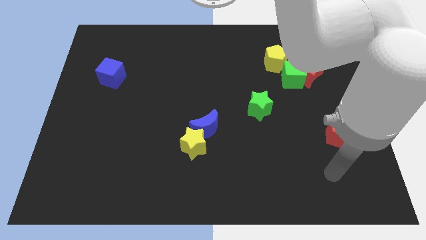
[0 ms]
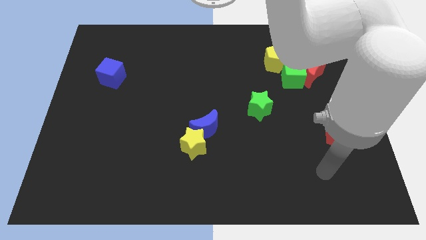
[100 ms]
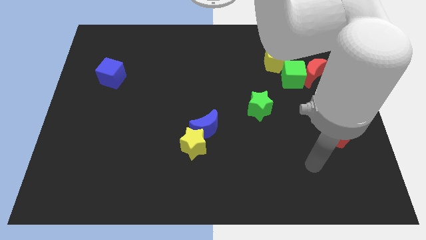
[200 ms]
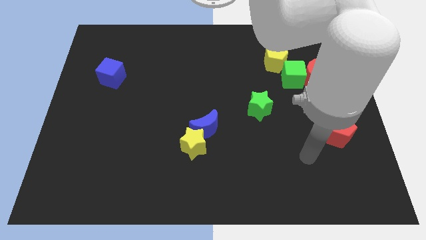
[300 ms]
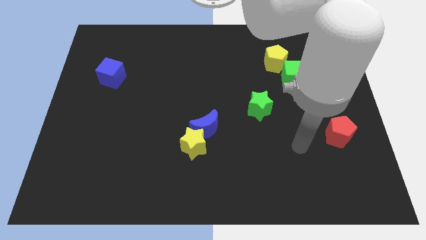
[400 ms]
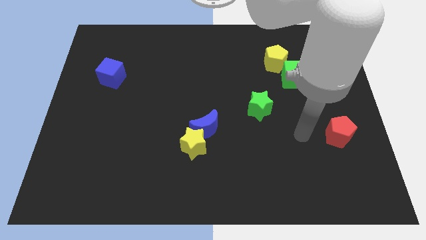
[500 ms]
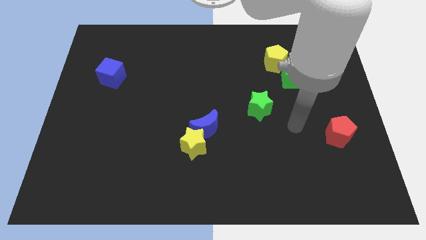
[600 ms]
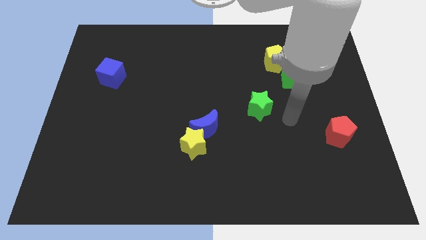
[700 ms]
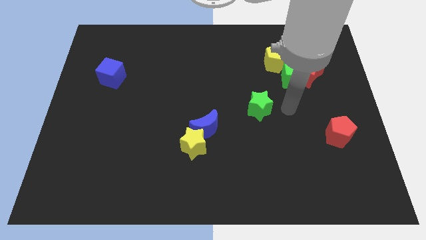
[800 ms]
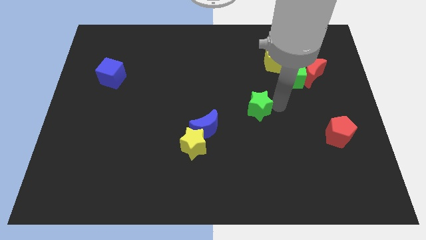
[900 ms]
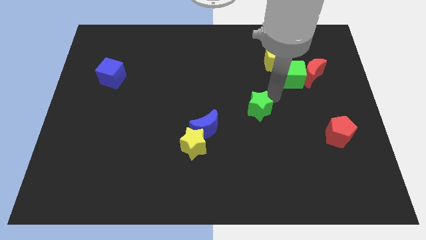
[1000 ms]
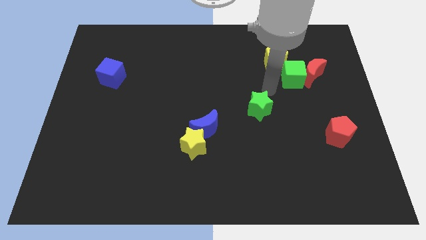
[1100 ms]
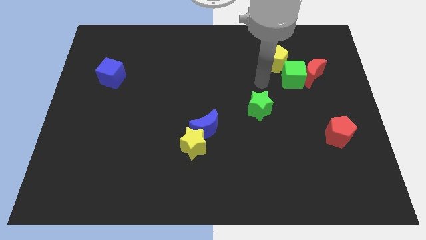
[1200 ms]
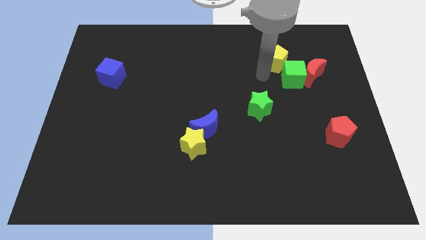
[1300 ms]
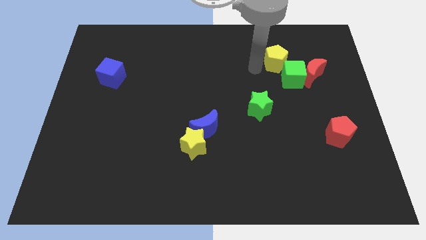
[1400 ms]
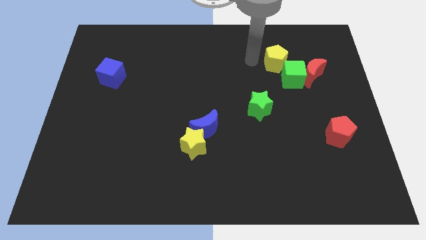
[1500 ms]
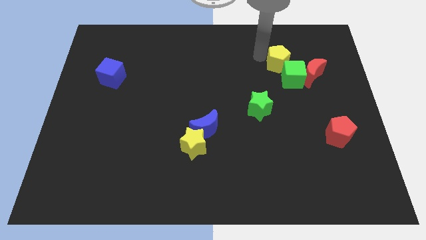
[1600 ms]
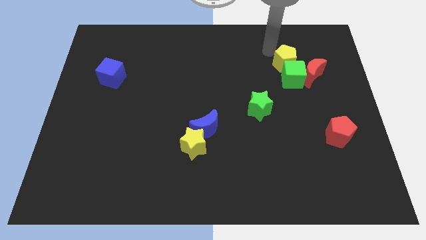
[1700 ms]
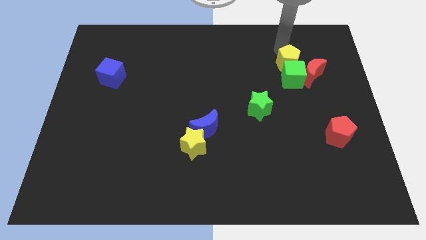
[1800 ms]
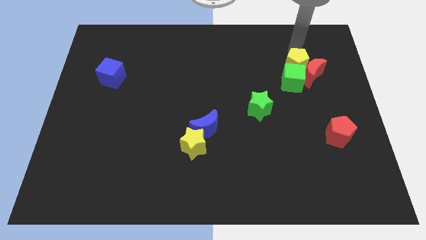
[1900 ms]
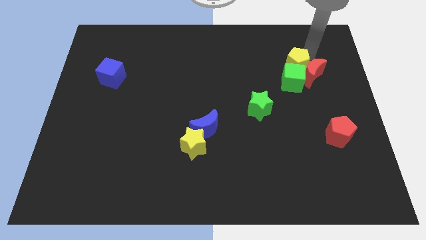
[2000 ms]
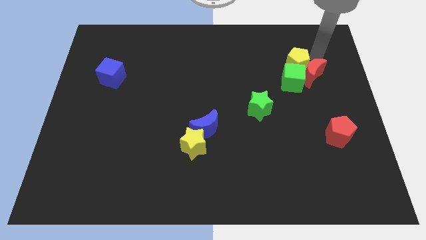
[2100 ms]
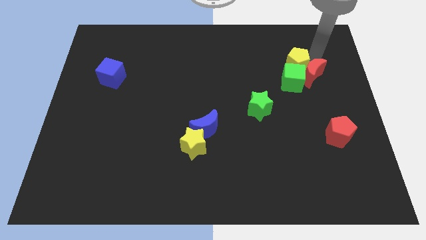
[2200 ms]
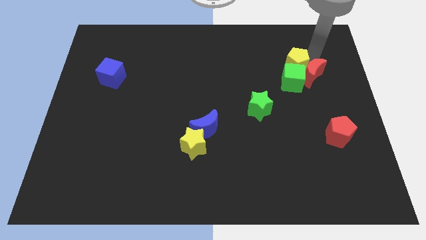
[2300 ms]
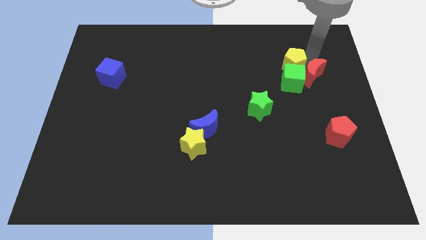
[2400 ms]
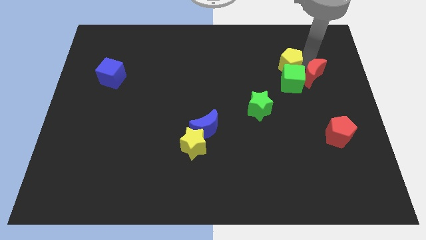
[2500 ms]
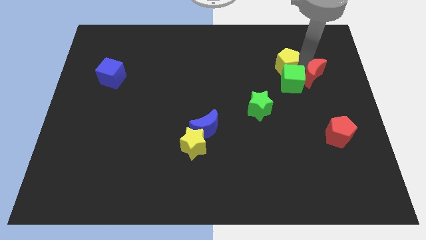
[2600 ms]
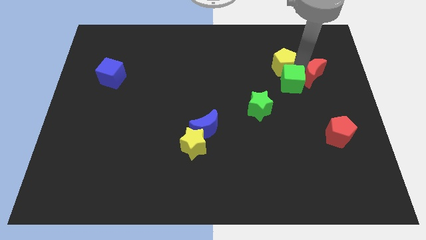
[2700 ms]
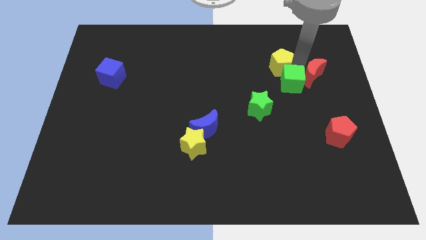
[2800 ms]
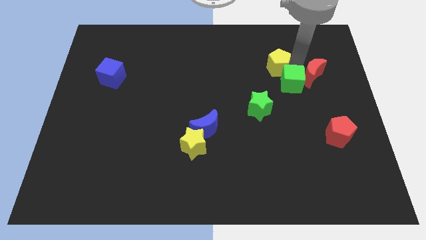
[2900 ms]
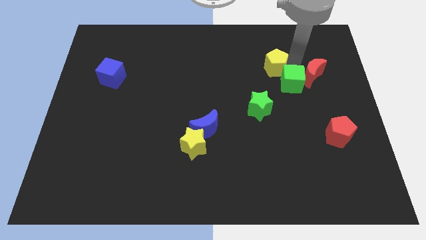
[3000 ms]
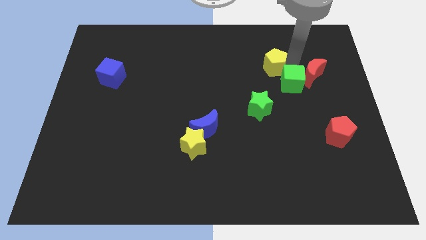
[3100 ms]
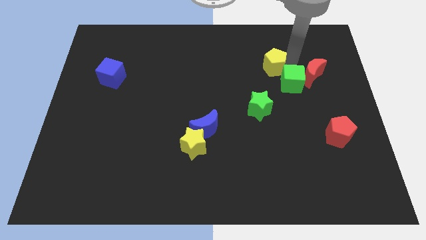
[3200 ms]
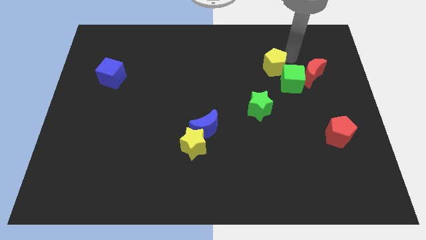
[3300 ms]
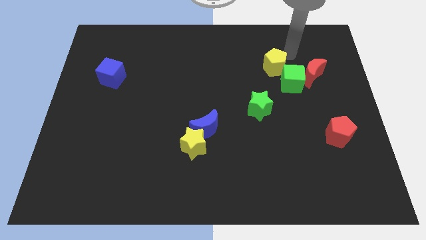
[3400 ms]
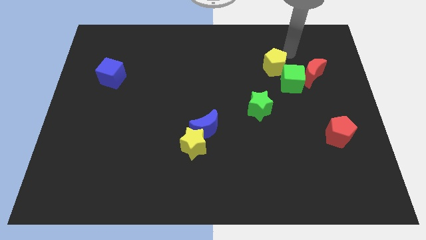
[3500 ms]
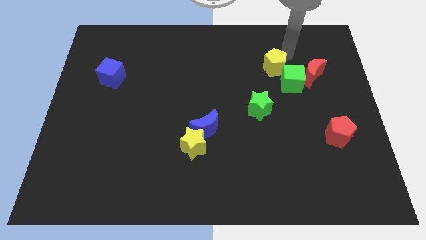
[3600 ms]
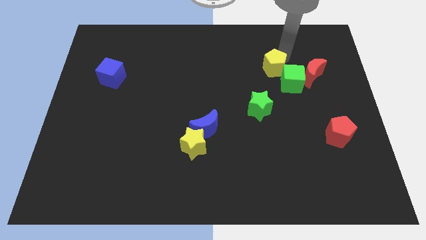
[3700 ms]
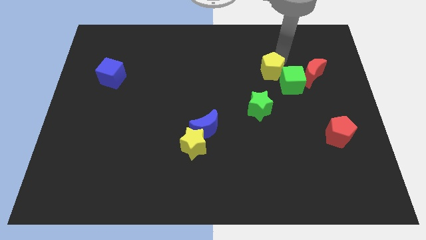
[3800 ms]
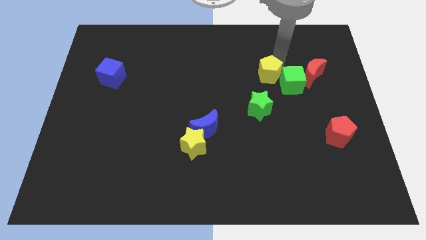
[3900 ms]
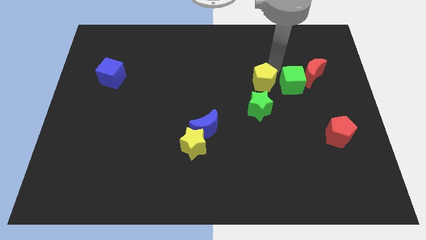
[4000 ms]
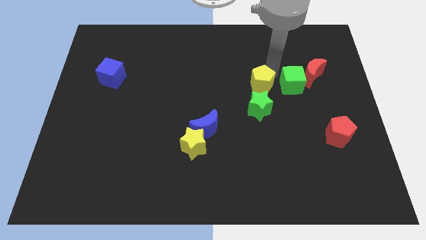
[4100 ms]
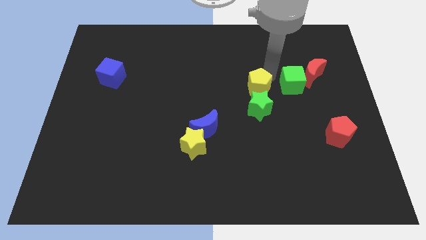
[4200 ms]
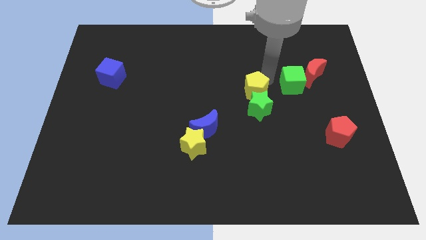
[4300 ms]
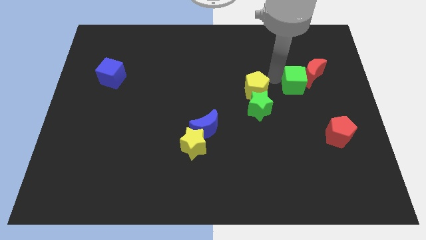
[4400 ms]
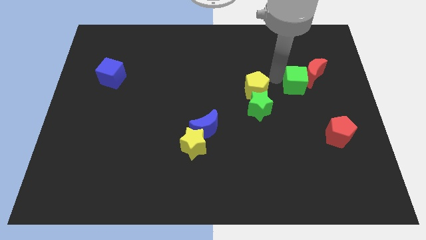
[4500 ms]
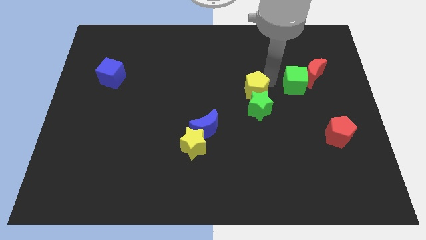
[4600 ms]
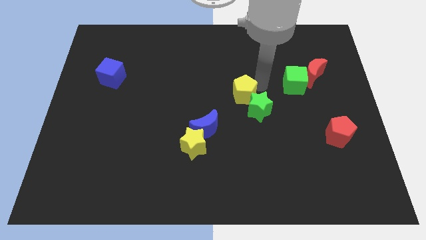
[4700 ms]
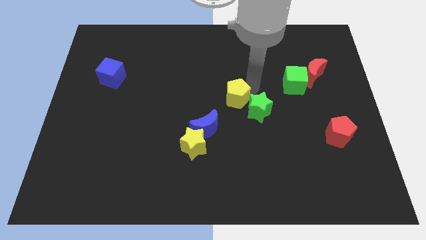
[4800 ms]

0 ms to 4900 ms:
put the yellow pentagon to the left of the green star

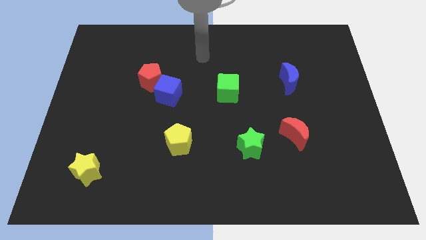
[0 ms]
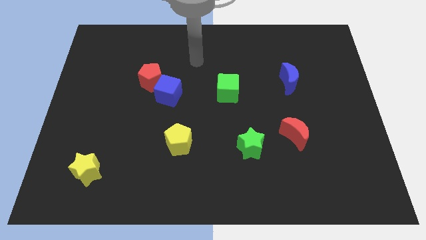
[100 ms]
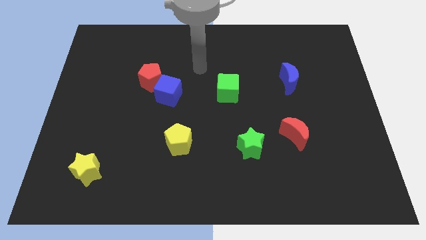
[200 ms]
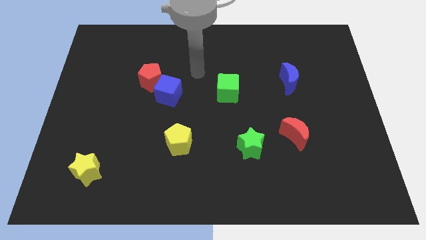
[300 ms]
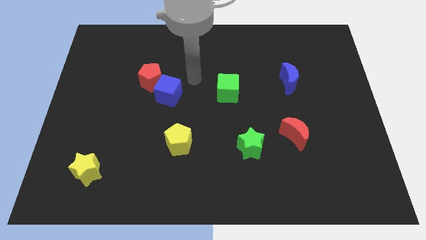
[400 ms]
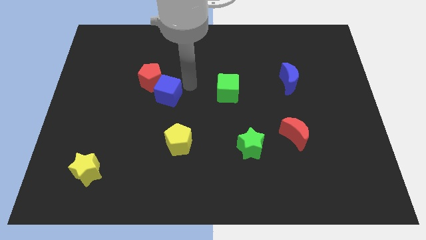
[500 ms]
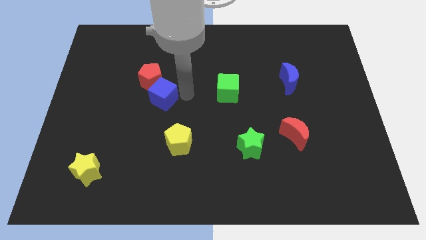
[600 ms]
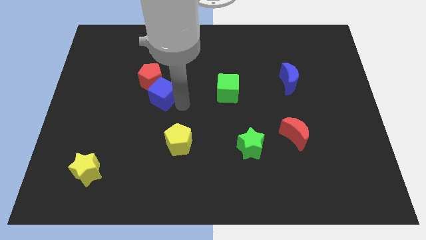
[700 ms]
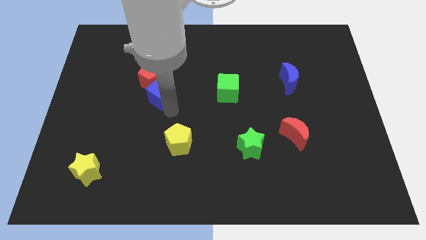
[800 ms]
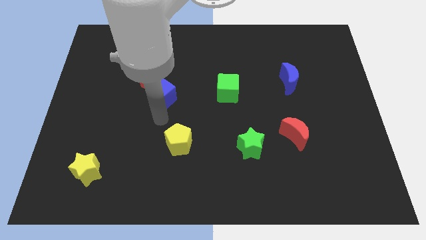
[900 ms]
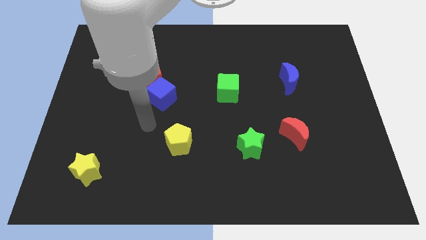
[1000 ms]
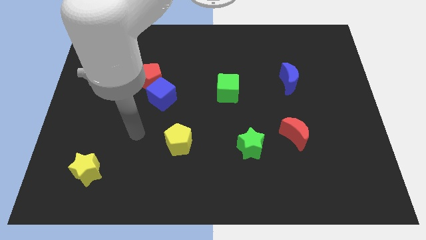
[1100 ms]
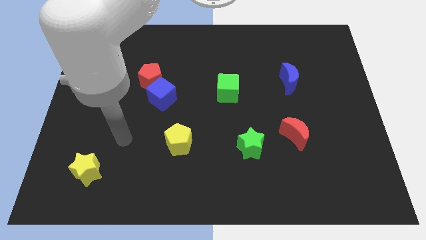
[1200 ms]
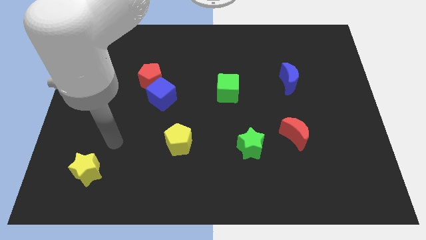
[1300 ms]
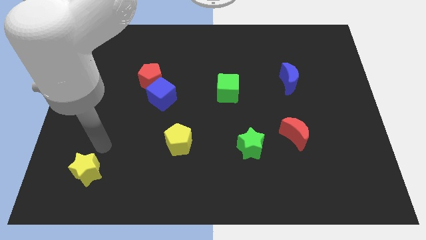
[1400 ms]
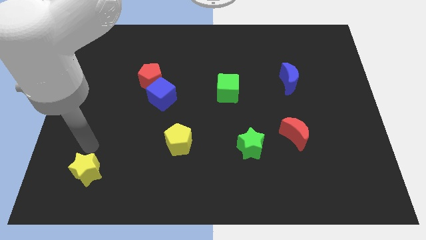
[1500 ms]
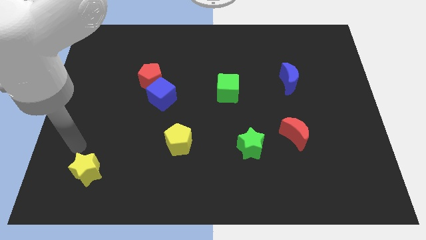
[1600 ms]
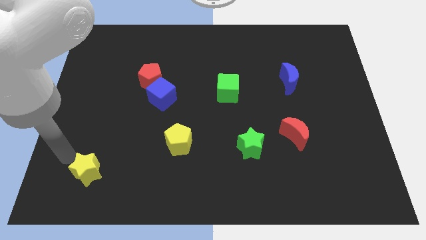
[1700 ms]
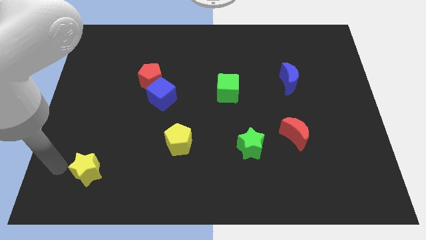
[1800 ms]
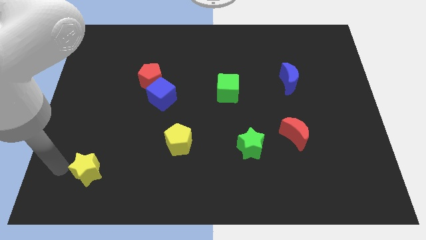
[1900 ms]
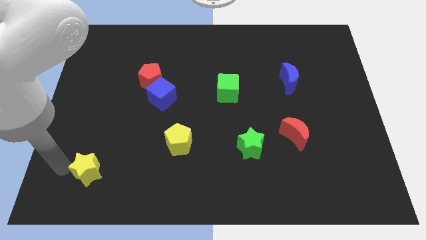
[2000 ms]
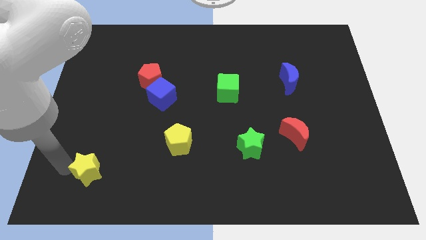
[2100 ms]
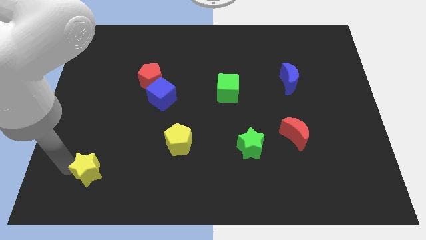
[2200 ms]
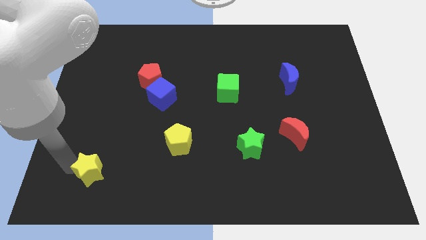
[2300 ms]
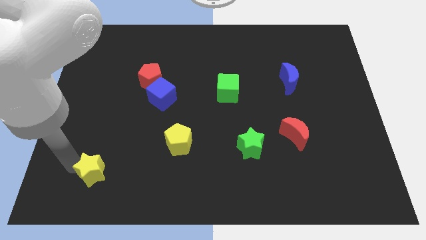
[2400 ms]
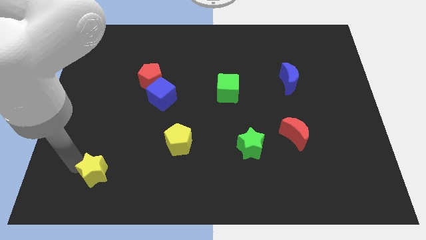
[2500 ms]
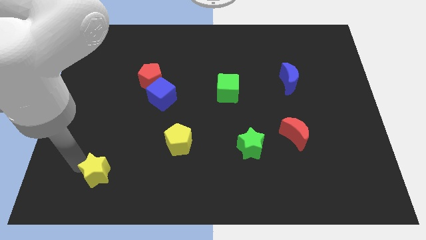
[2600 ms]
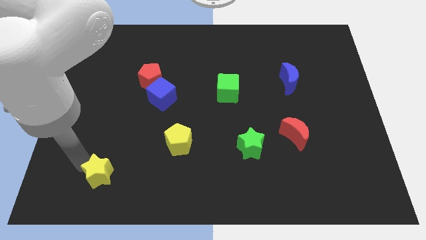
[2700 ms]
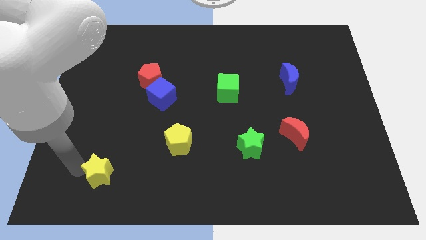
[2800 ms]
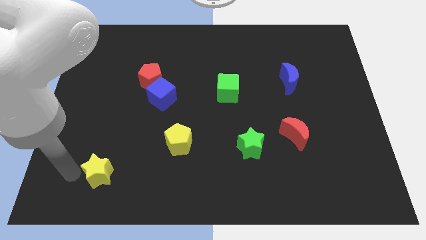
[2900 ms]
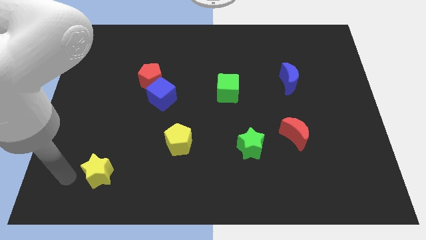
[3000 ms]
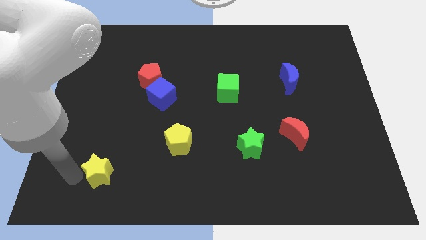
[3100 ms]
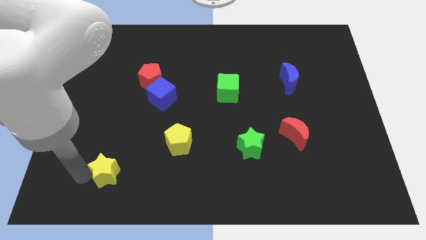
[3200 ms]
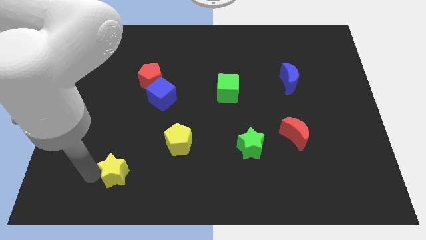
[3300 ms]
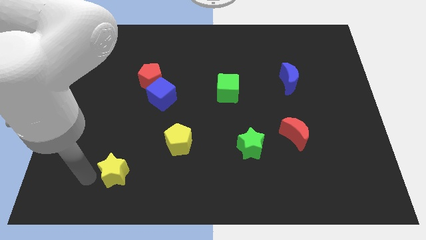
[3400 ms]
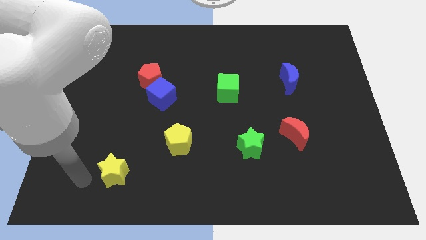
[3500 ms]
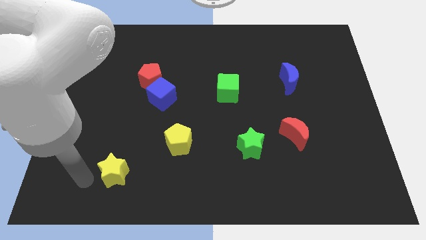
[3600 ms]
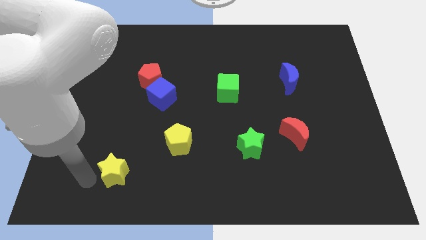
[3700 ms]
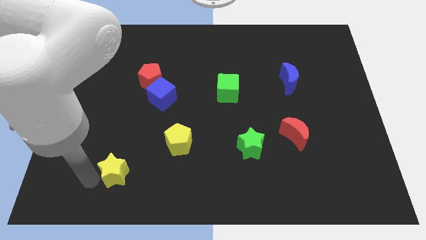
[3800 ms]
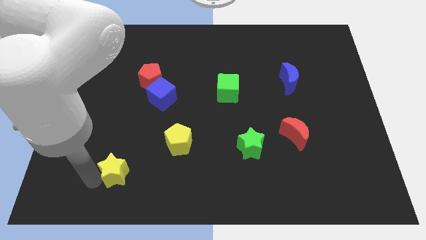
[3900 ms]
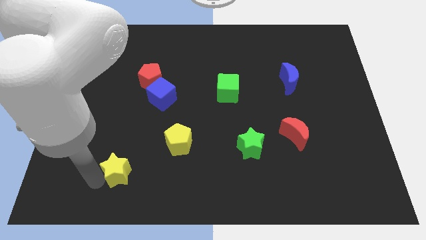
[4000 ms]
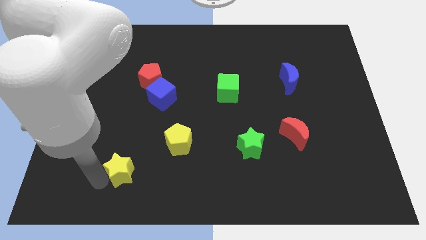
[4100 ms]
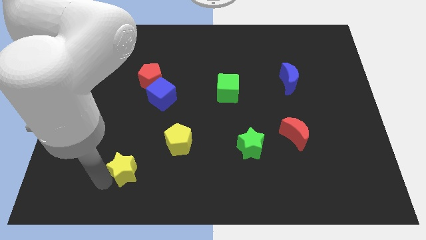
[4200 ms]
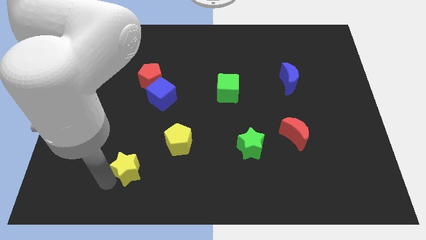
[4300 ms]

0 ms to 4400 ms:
move the yellow star diagonally down and to the left of the yellow pentagon
